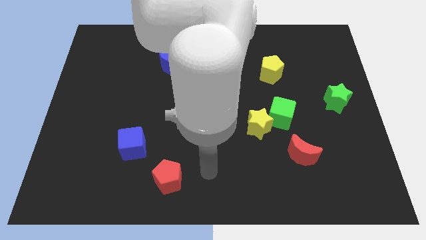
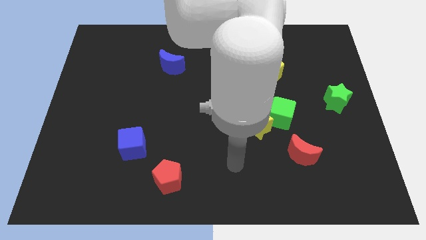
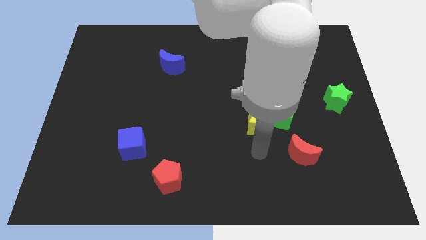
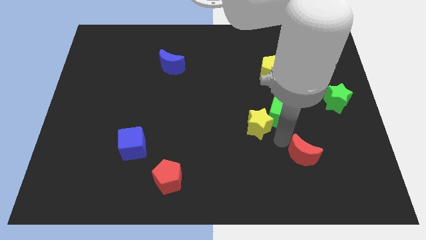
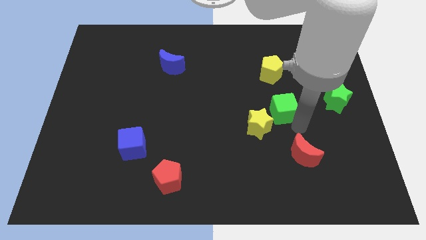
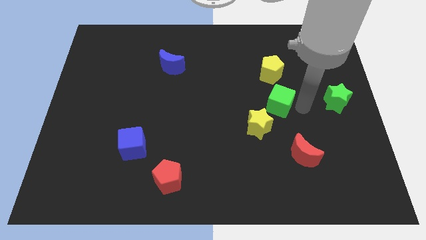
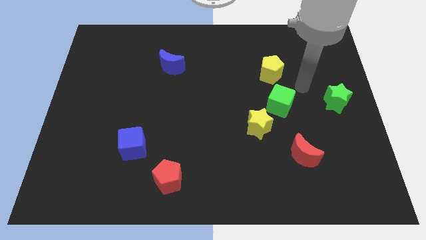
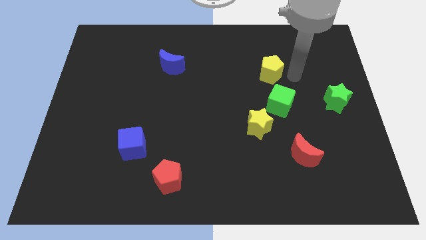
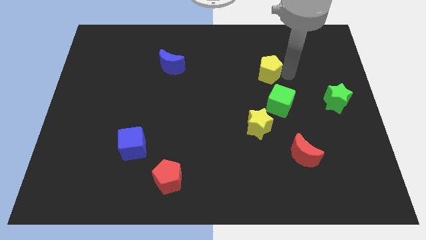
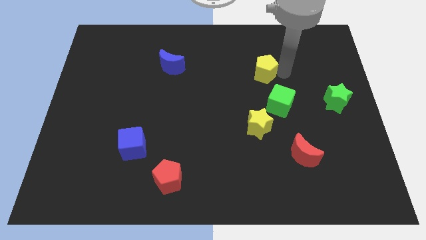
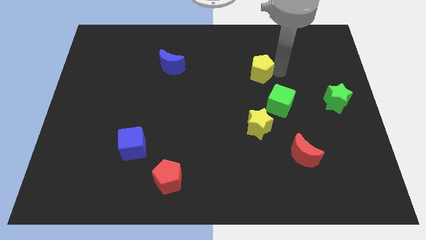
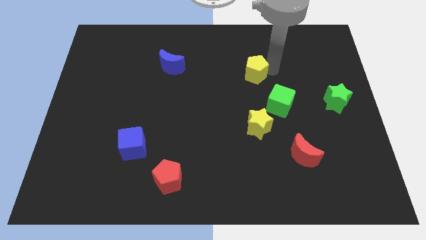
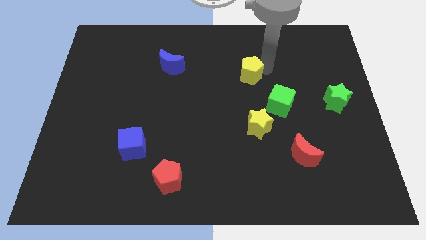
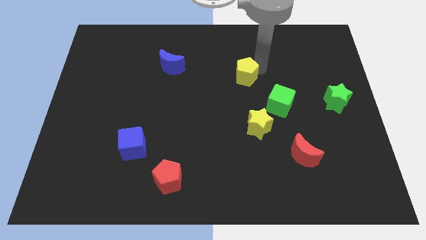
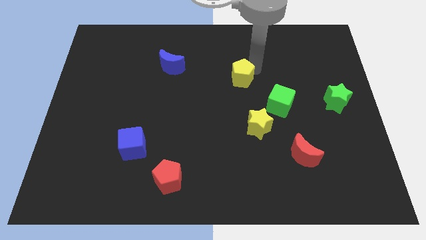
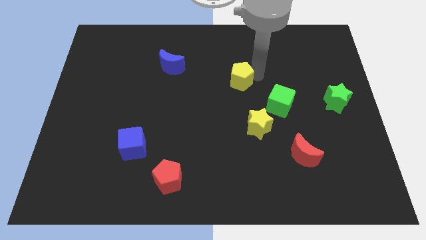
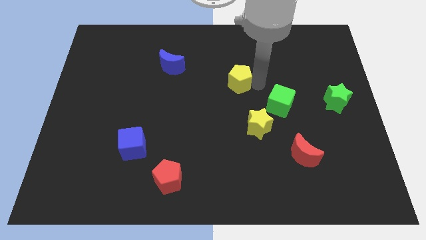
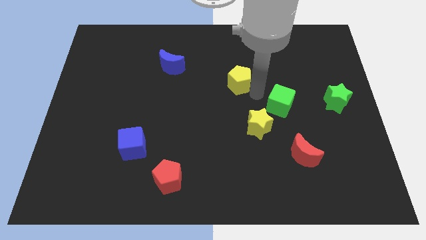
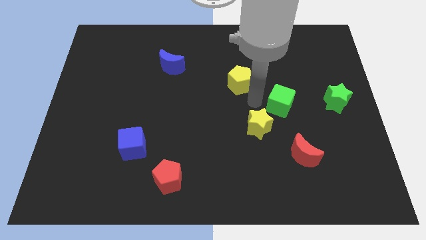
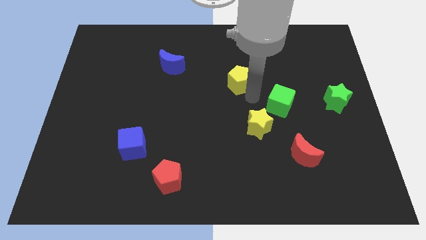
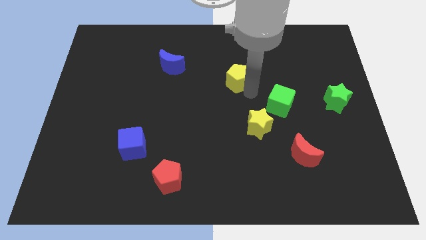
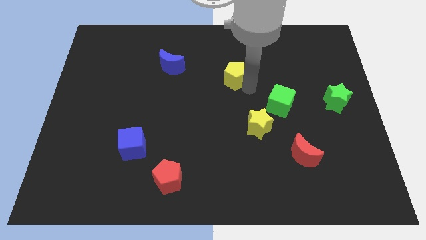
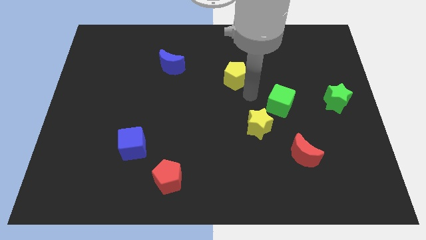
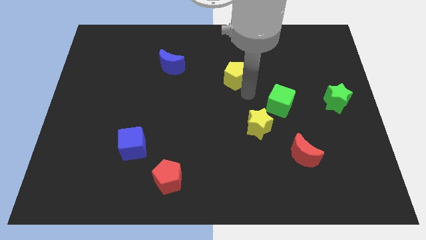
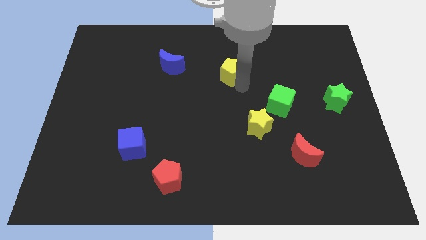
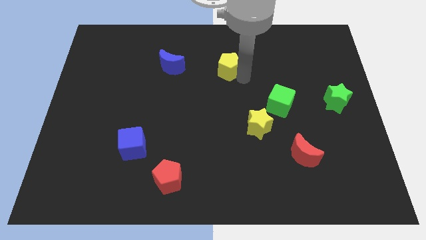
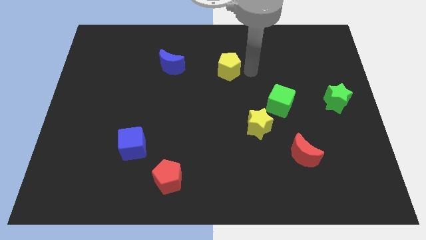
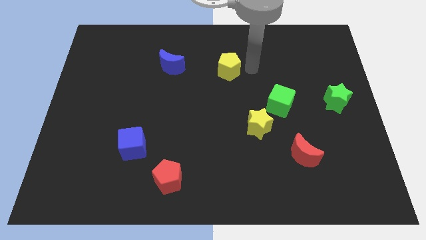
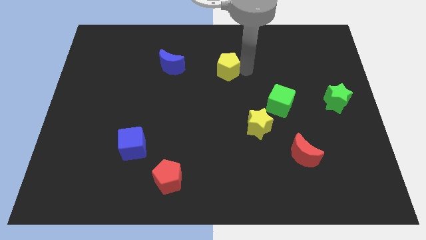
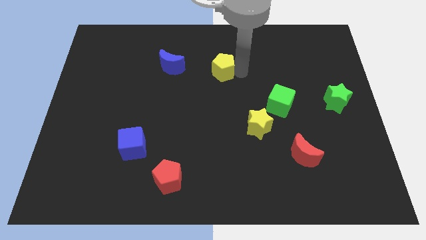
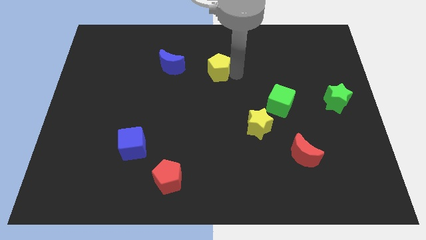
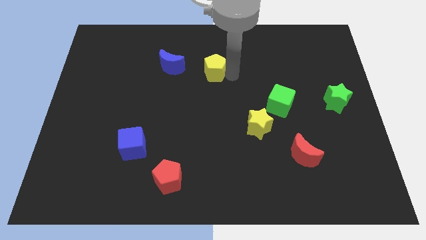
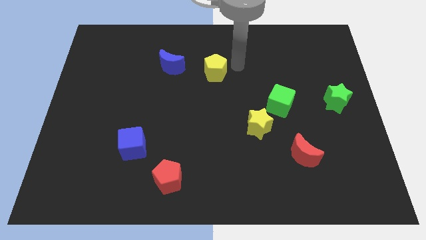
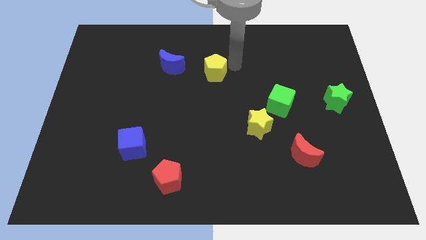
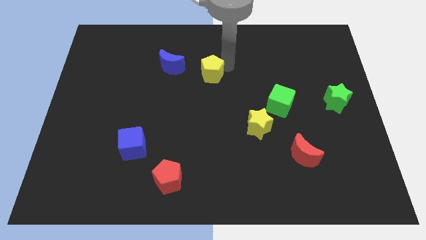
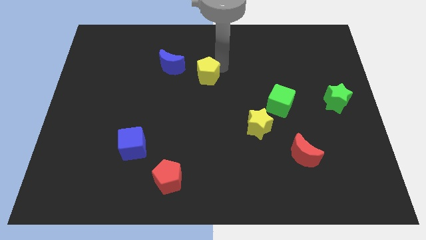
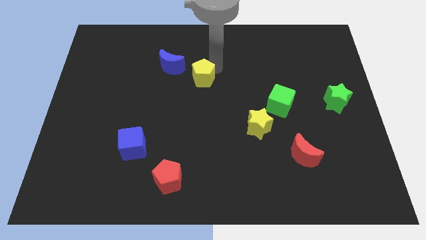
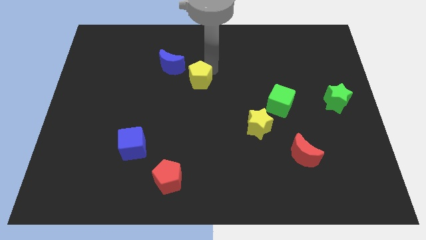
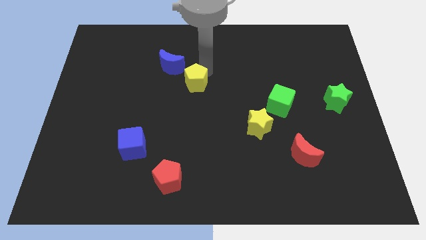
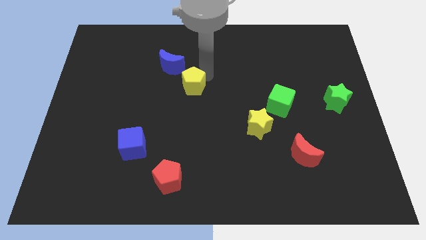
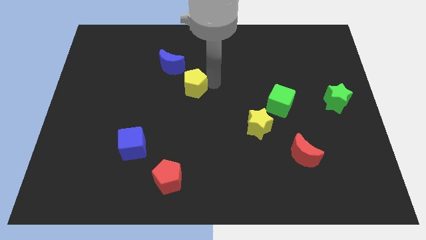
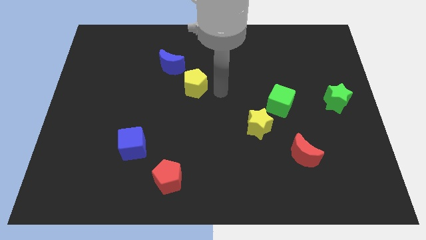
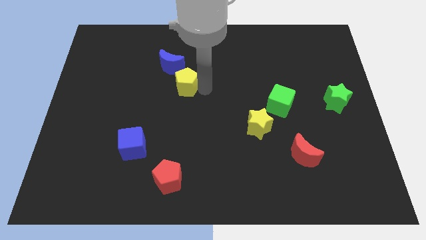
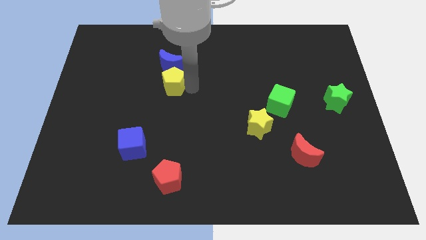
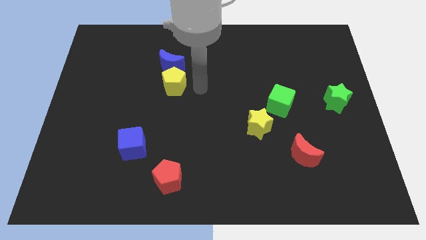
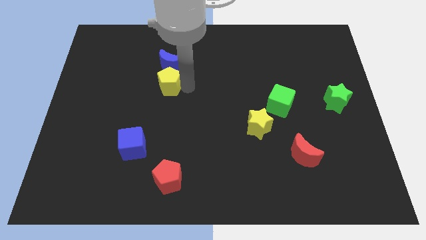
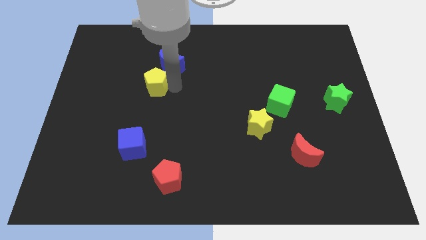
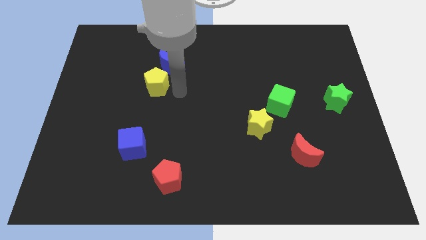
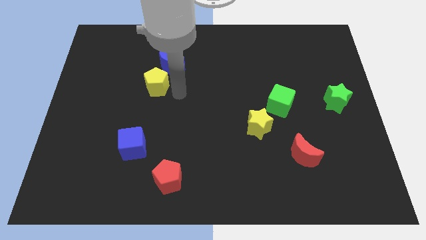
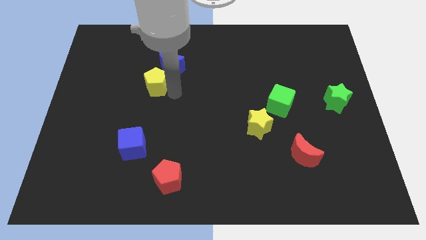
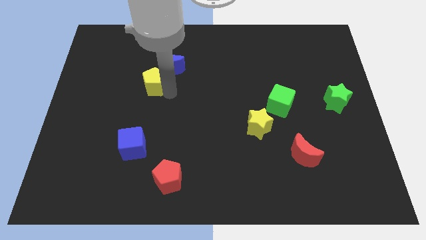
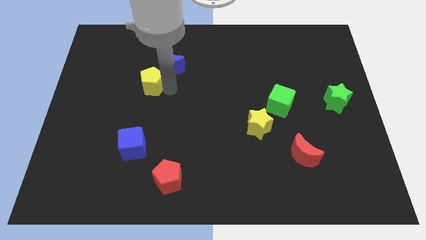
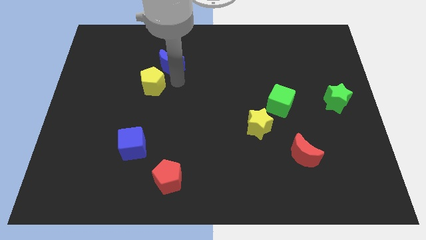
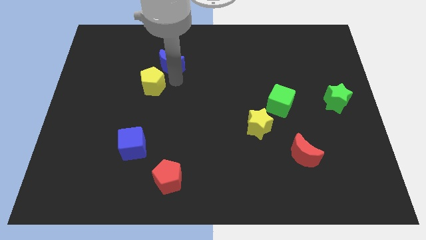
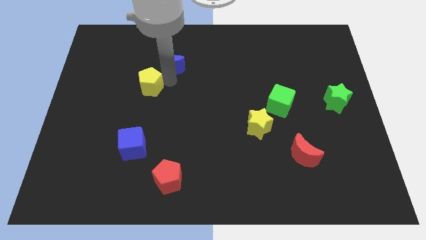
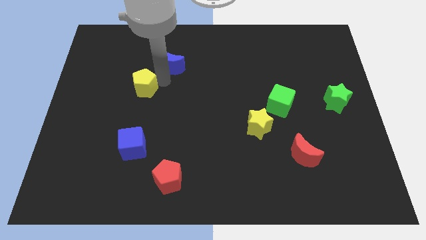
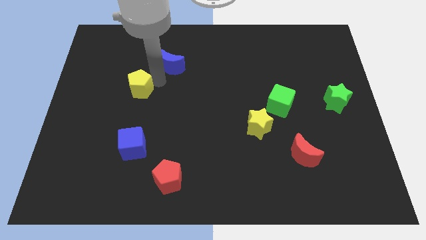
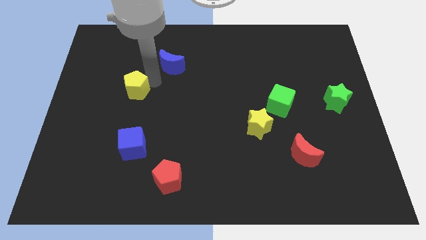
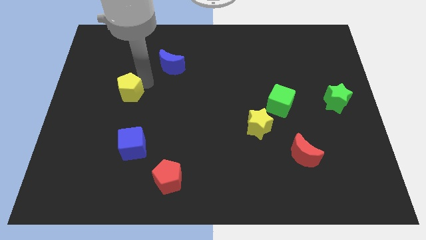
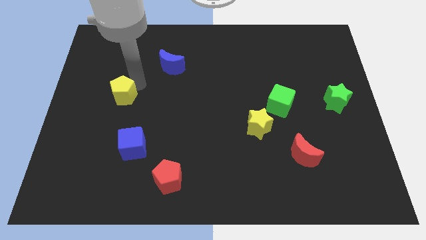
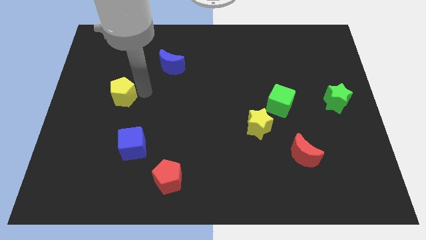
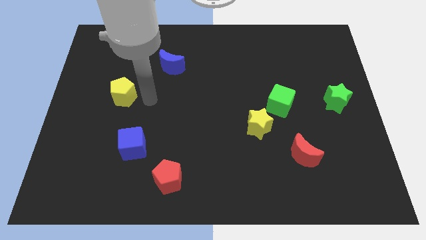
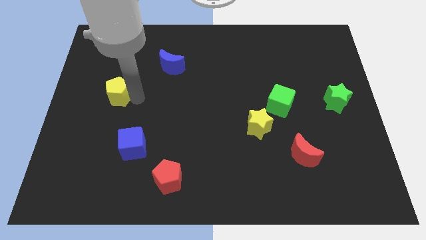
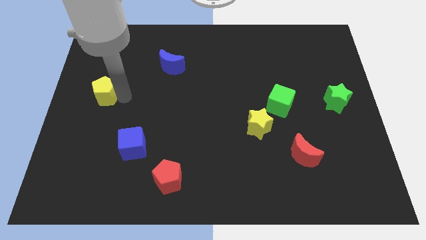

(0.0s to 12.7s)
move the yellow pentagon to the center left
